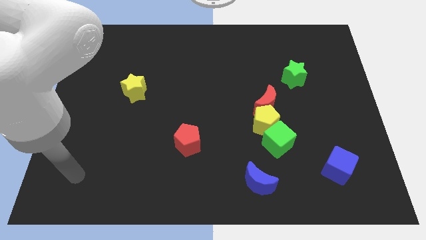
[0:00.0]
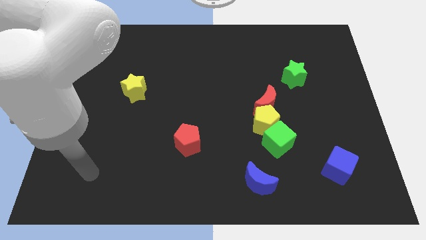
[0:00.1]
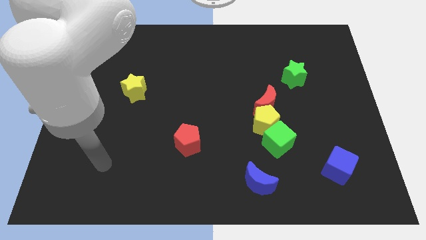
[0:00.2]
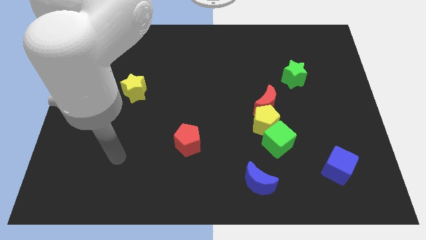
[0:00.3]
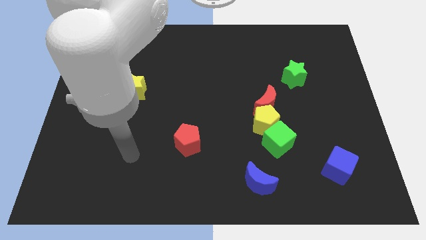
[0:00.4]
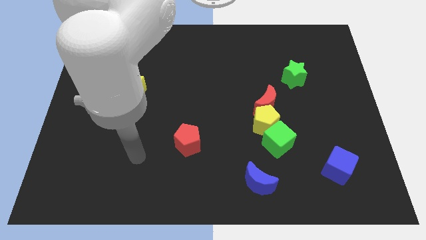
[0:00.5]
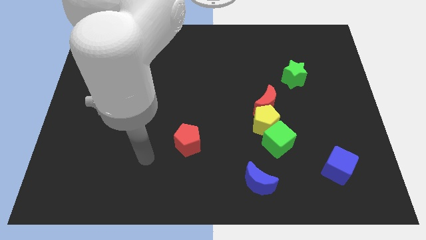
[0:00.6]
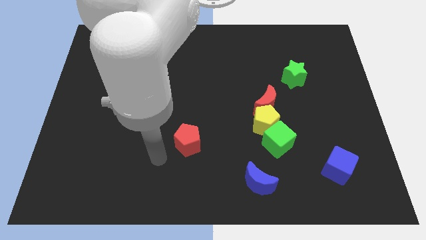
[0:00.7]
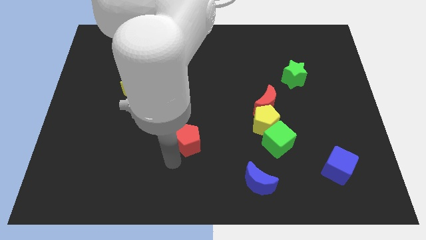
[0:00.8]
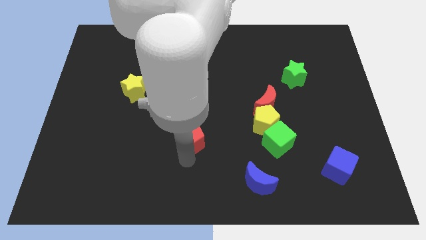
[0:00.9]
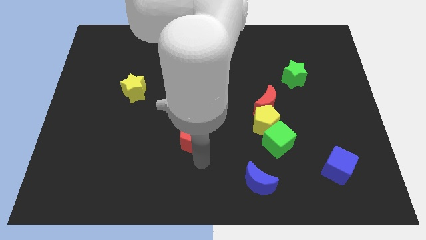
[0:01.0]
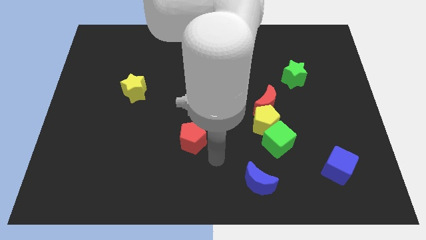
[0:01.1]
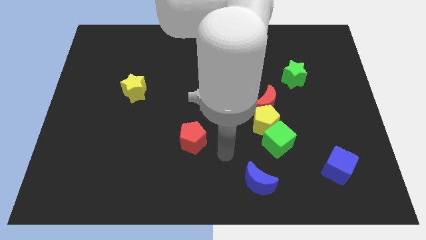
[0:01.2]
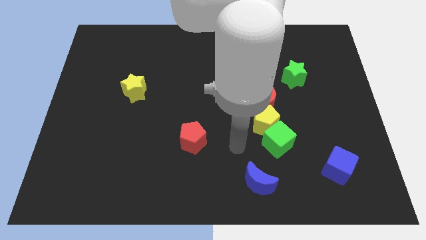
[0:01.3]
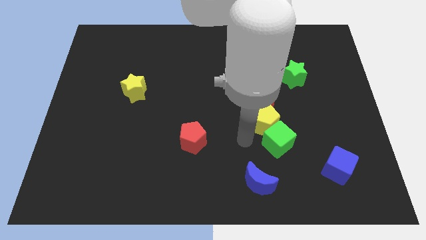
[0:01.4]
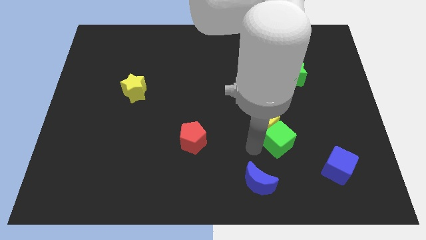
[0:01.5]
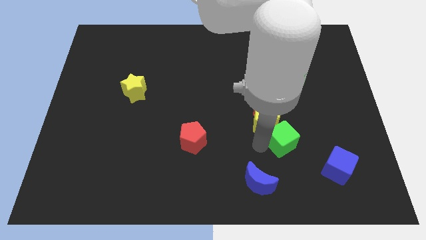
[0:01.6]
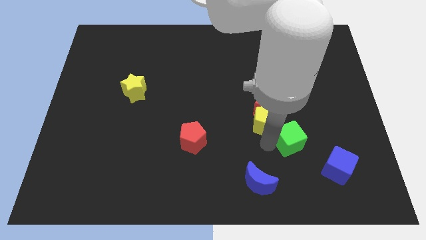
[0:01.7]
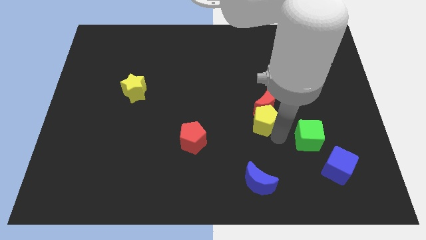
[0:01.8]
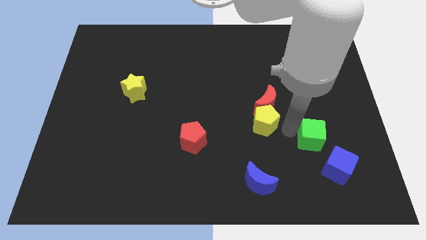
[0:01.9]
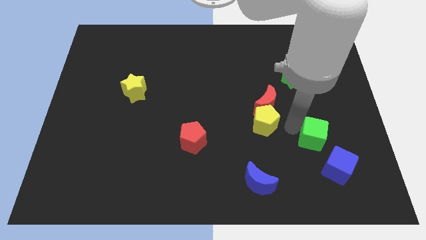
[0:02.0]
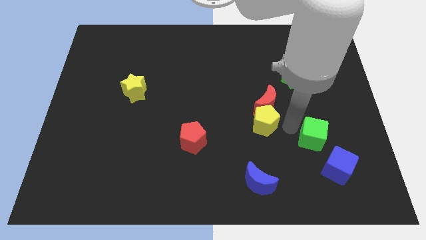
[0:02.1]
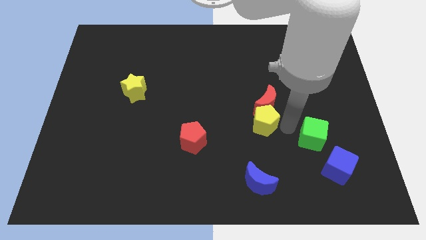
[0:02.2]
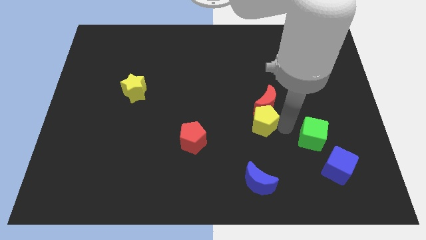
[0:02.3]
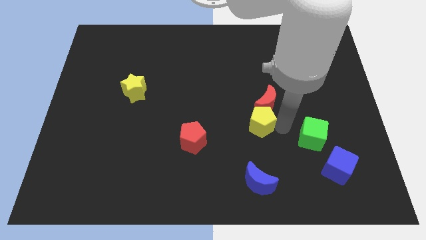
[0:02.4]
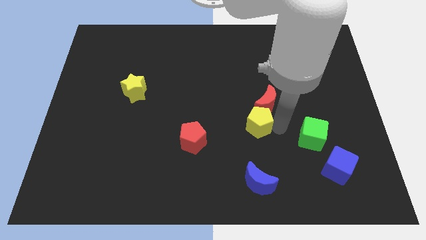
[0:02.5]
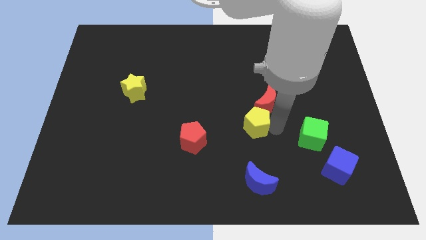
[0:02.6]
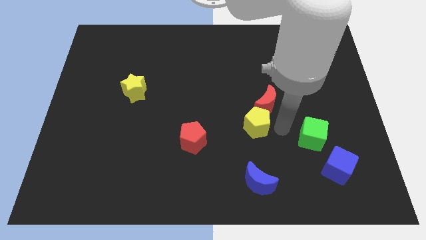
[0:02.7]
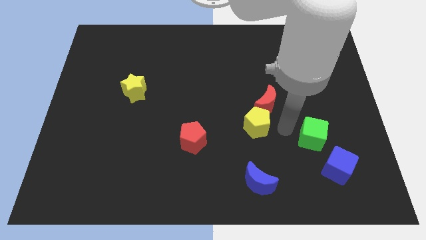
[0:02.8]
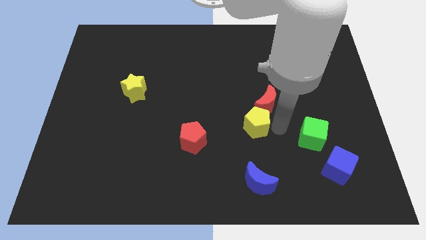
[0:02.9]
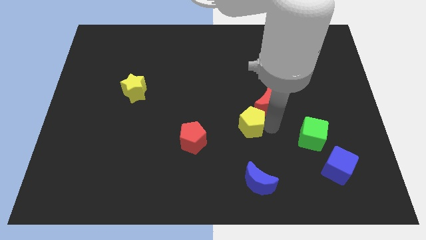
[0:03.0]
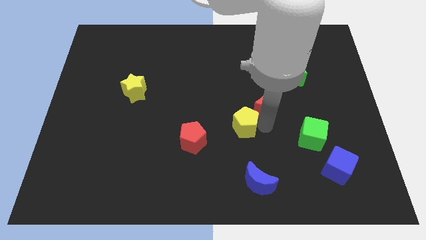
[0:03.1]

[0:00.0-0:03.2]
pull the yellow pentagon apart from the red moon and green cube

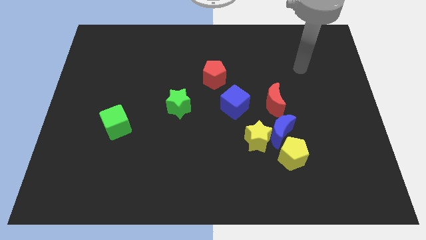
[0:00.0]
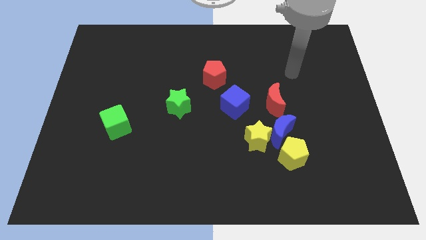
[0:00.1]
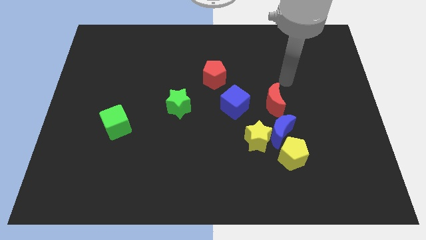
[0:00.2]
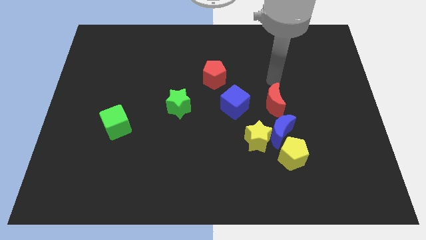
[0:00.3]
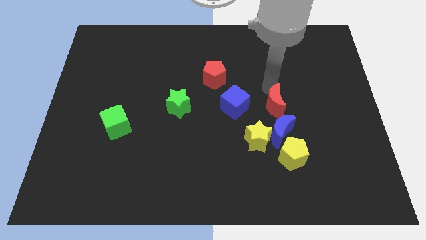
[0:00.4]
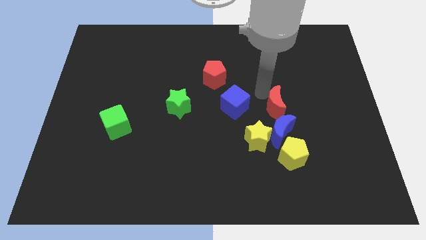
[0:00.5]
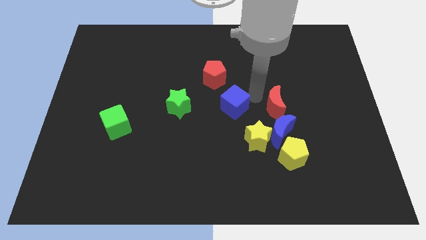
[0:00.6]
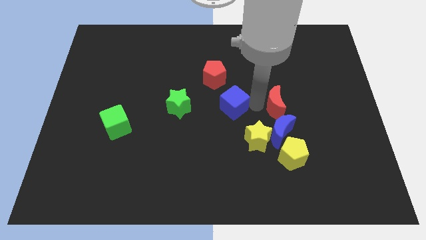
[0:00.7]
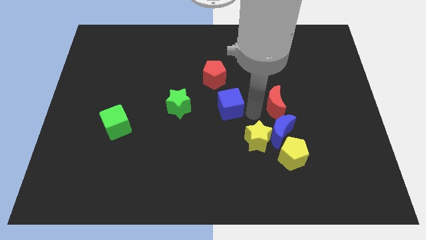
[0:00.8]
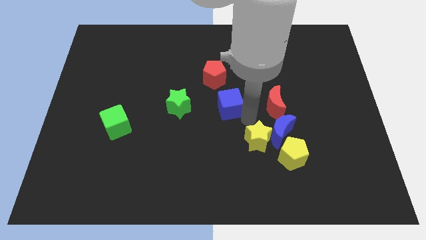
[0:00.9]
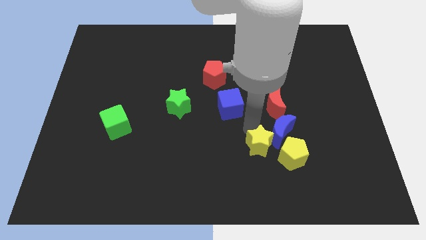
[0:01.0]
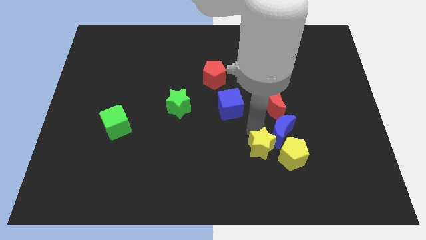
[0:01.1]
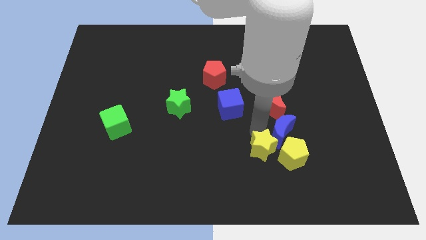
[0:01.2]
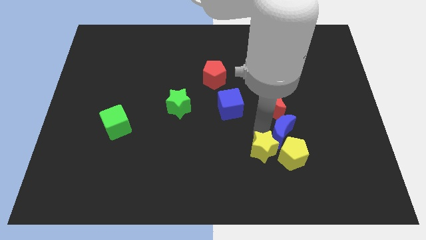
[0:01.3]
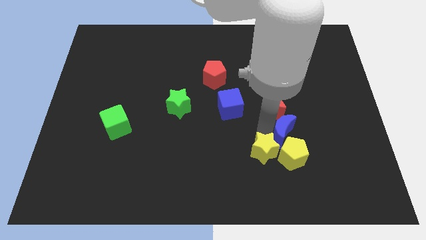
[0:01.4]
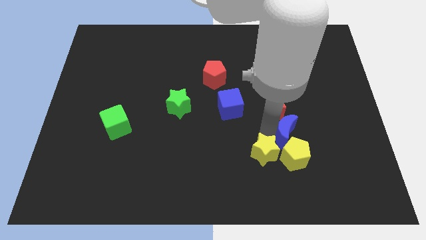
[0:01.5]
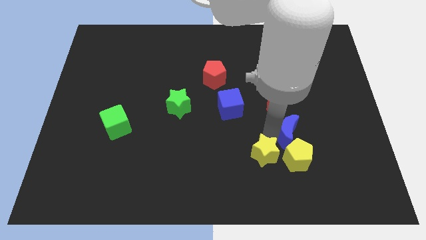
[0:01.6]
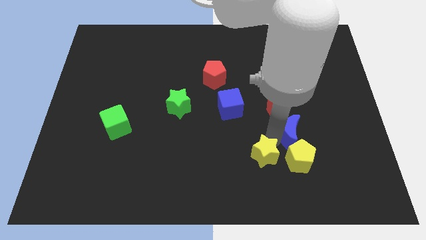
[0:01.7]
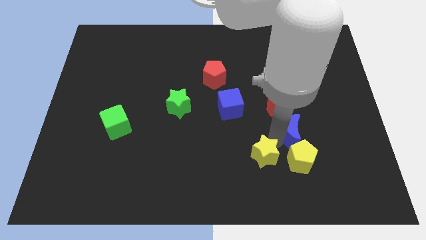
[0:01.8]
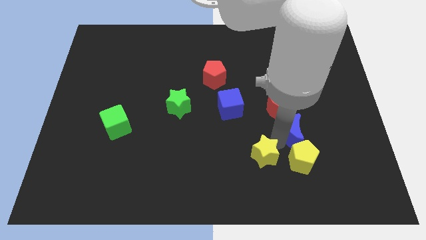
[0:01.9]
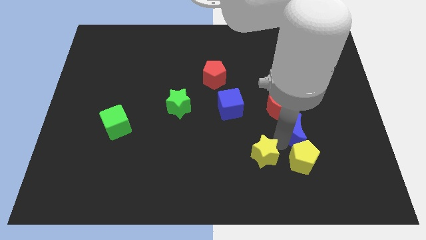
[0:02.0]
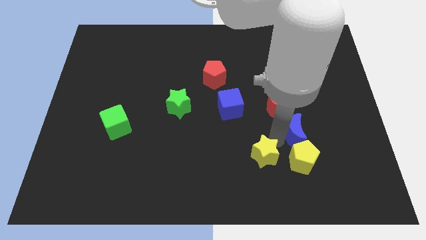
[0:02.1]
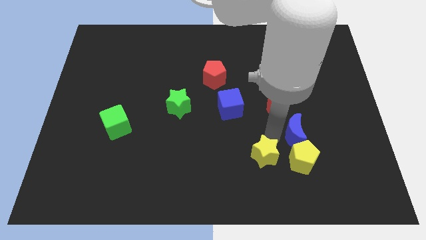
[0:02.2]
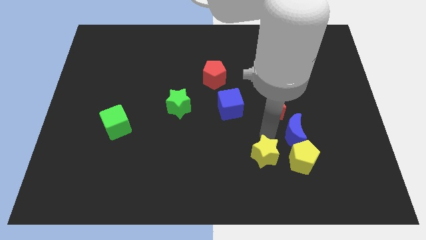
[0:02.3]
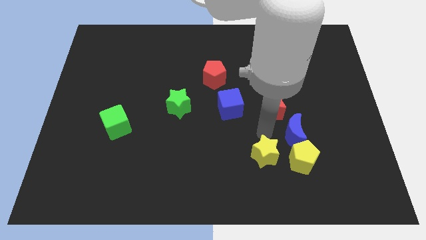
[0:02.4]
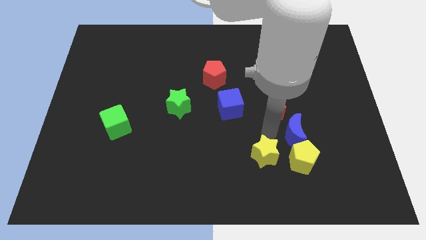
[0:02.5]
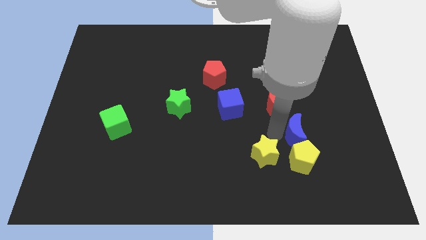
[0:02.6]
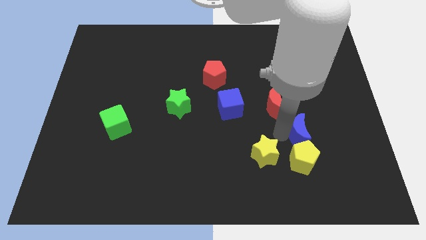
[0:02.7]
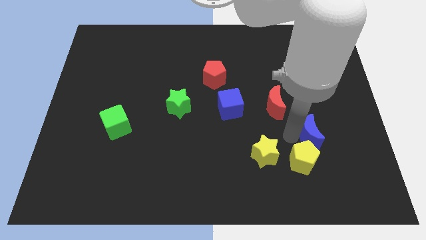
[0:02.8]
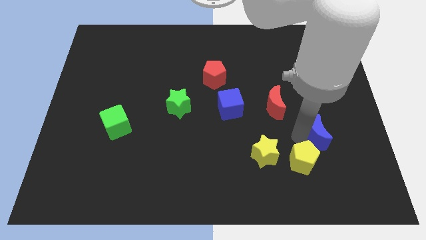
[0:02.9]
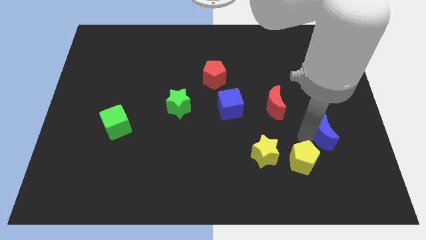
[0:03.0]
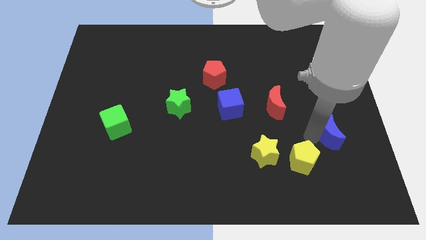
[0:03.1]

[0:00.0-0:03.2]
pull the blue moon apart from the clump

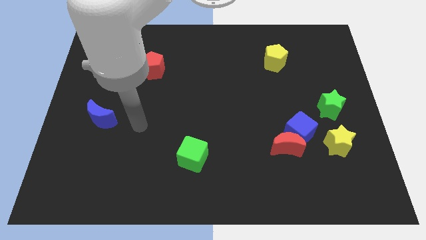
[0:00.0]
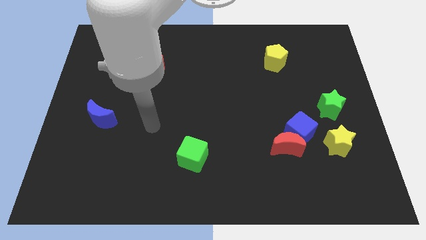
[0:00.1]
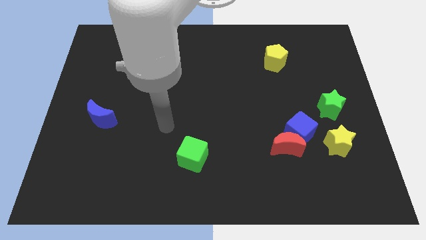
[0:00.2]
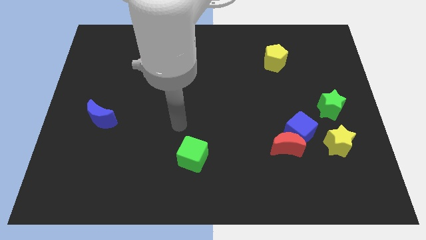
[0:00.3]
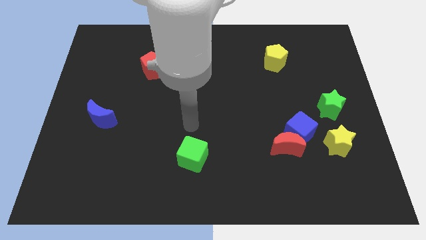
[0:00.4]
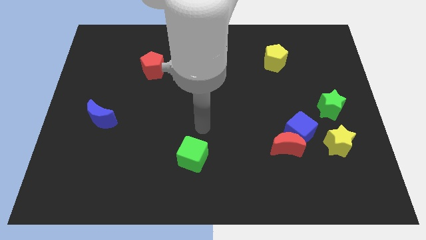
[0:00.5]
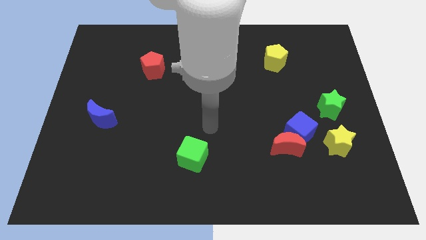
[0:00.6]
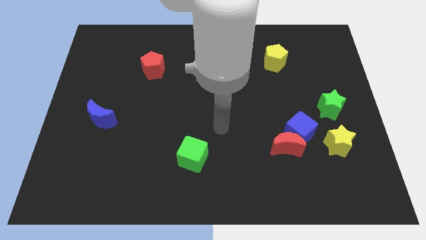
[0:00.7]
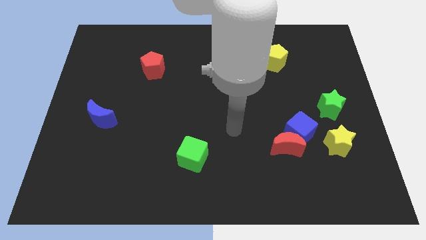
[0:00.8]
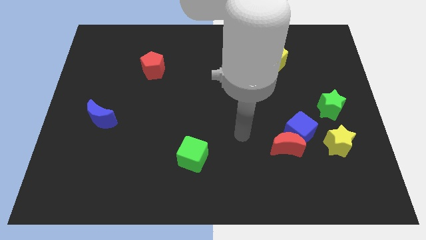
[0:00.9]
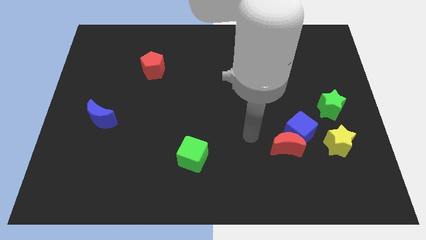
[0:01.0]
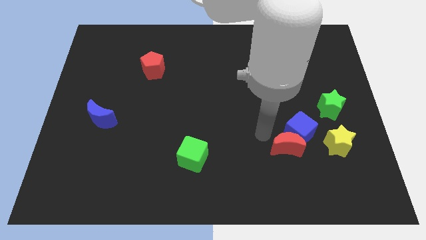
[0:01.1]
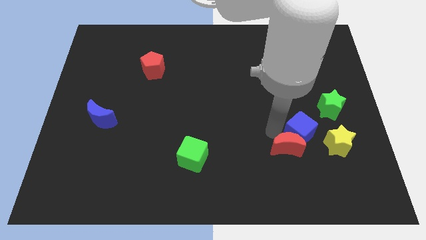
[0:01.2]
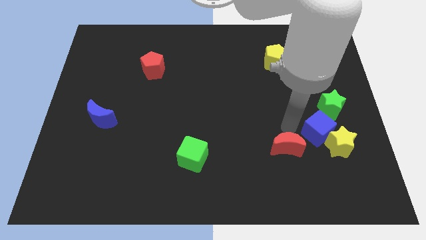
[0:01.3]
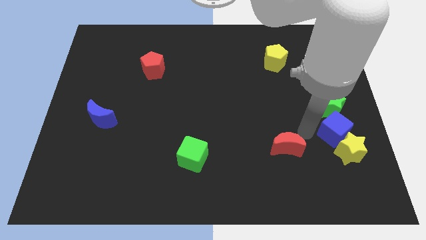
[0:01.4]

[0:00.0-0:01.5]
move the red moon away from the blue cube

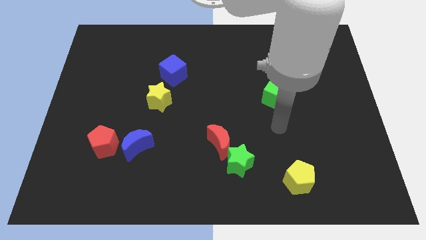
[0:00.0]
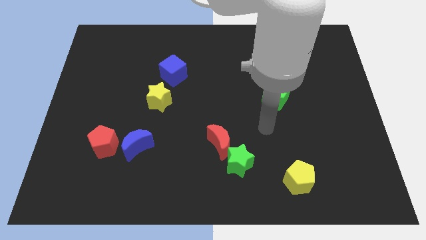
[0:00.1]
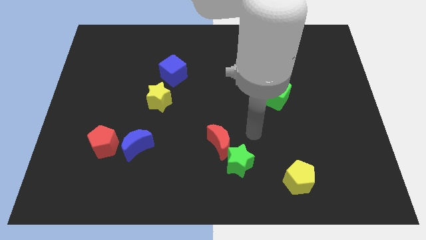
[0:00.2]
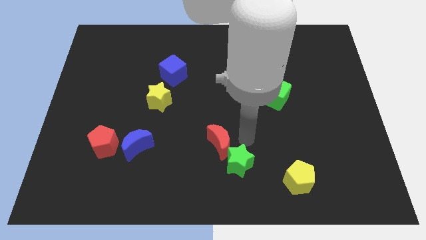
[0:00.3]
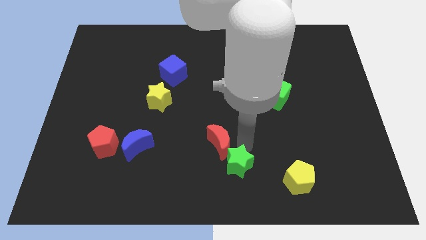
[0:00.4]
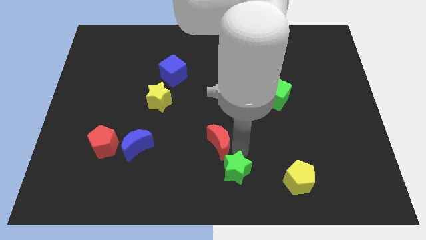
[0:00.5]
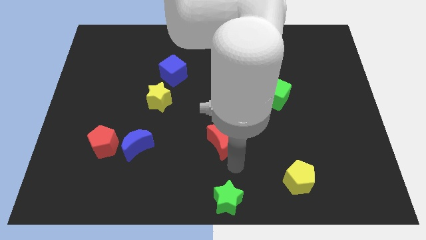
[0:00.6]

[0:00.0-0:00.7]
pull the red moon apart from the green star

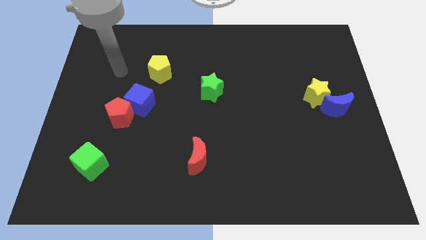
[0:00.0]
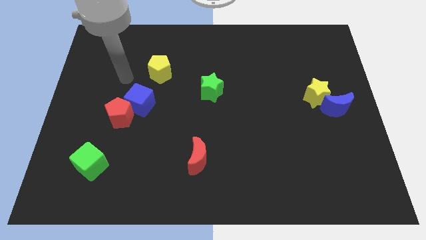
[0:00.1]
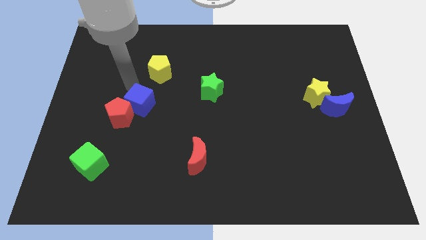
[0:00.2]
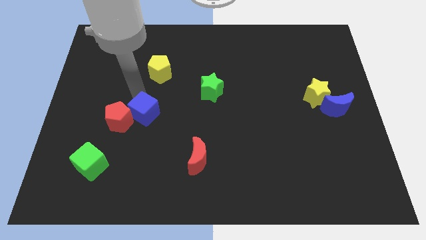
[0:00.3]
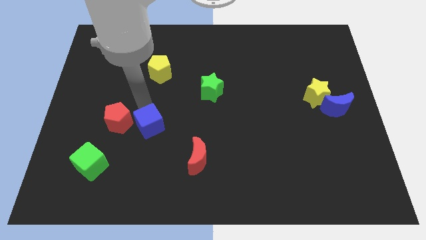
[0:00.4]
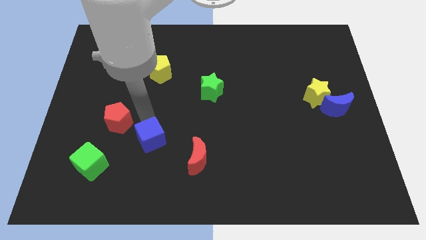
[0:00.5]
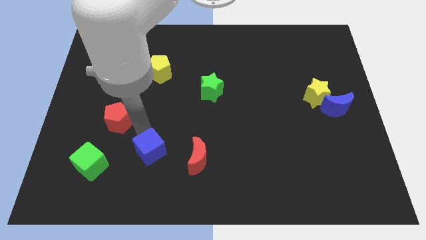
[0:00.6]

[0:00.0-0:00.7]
pull the red pentagon apart from the blue cube
